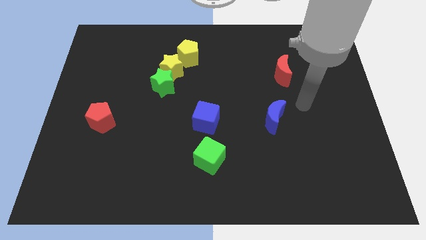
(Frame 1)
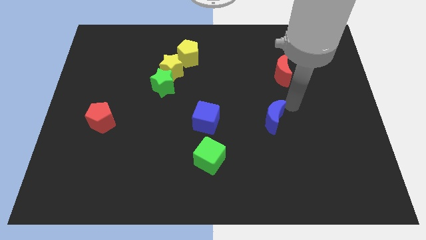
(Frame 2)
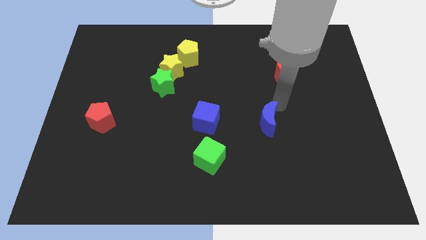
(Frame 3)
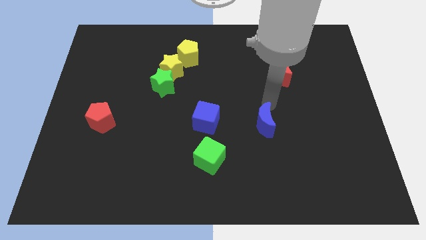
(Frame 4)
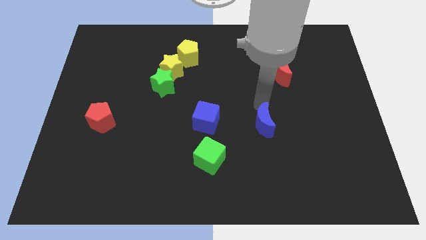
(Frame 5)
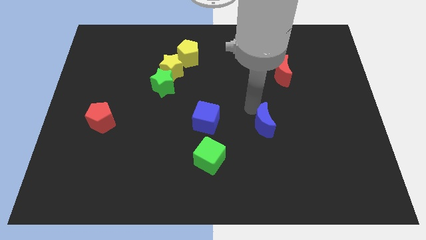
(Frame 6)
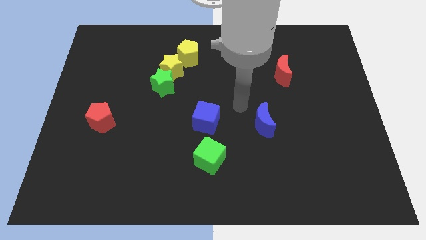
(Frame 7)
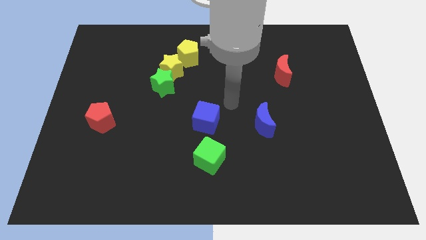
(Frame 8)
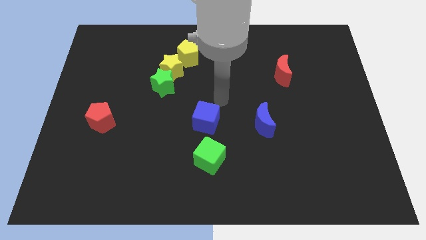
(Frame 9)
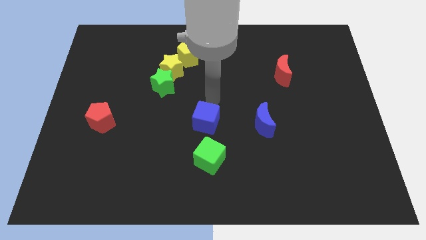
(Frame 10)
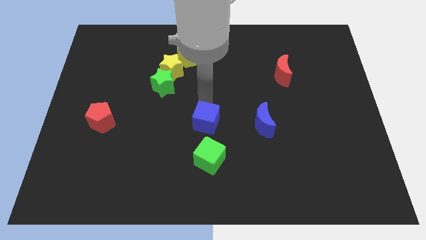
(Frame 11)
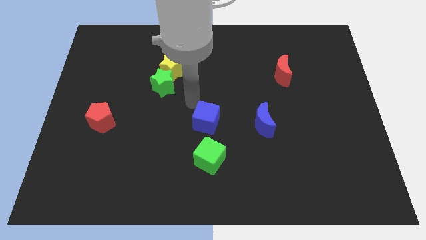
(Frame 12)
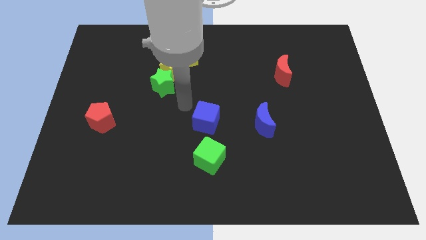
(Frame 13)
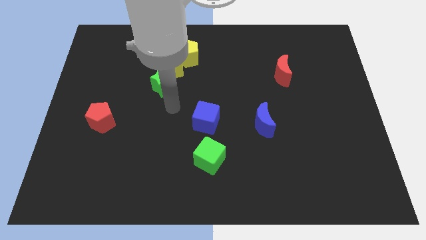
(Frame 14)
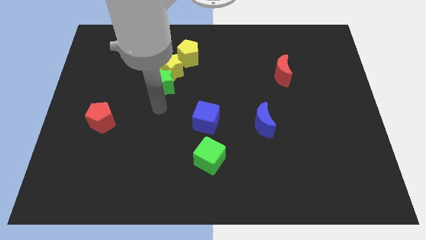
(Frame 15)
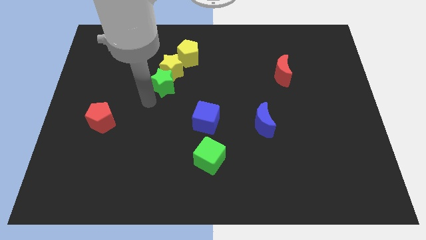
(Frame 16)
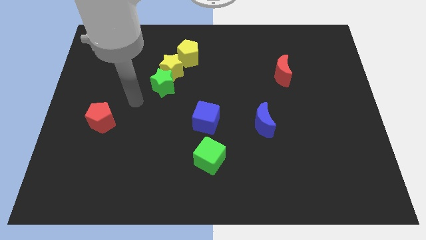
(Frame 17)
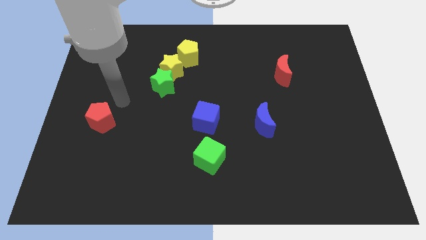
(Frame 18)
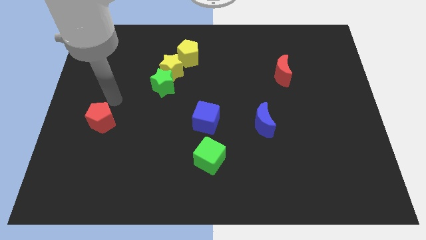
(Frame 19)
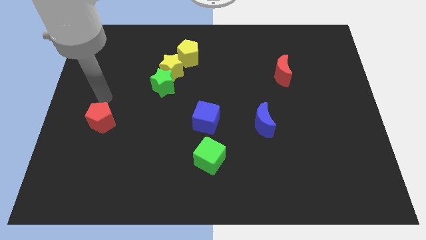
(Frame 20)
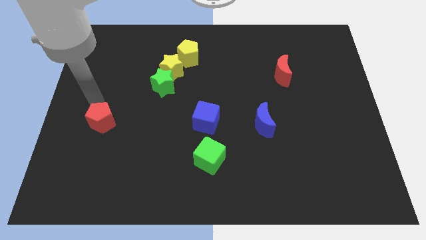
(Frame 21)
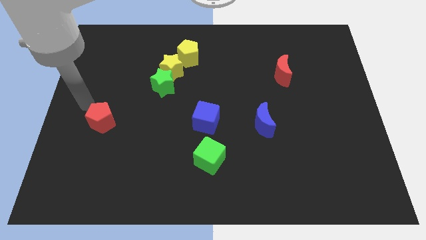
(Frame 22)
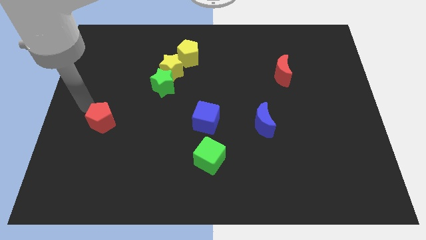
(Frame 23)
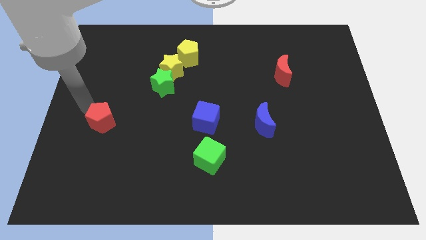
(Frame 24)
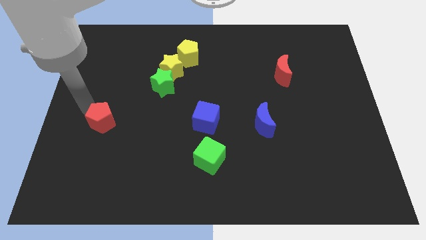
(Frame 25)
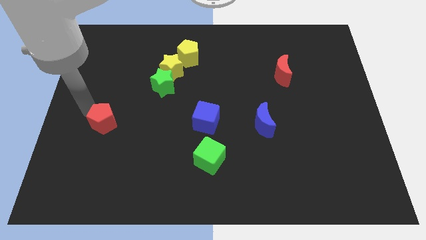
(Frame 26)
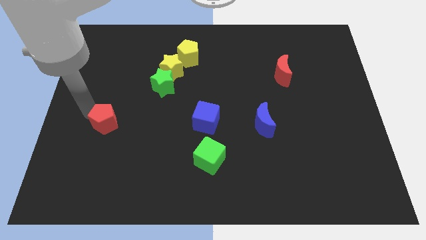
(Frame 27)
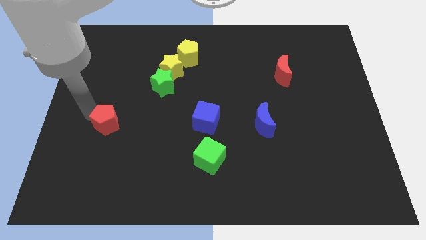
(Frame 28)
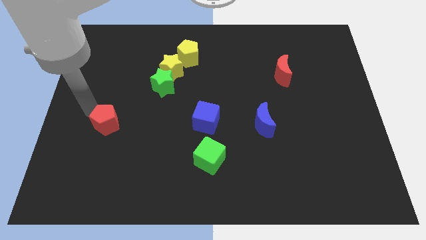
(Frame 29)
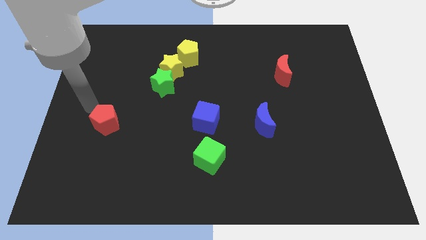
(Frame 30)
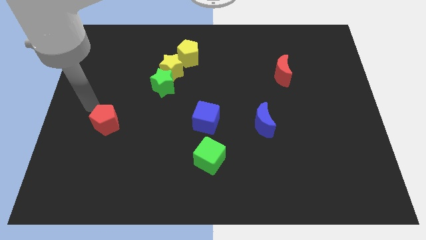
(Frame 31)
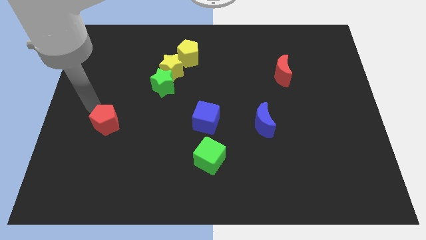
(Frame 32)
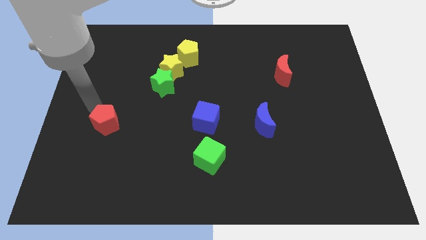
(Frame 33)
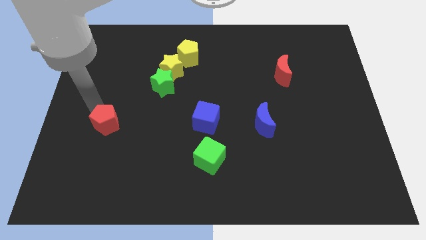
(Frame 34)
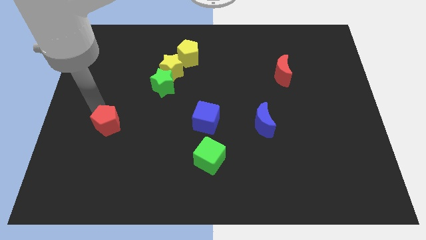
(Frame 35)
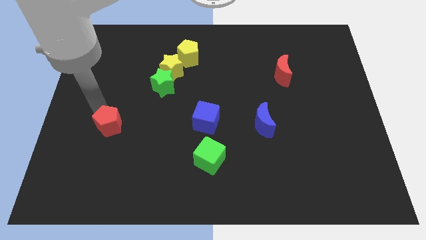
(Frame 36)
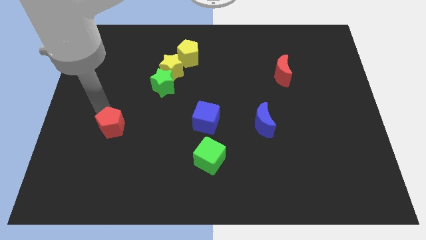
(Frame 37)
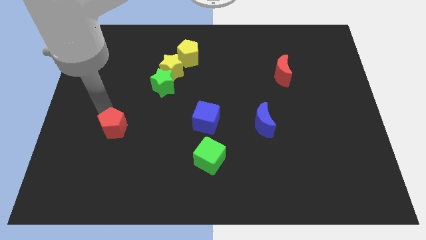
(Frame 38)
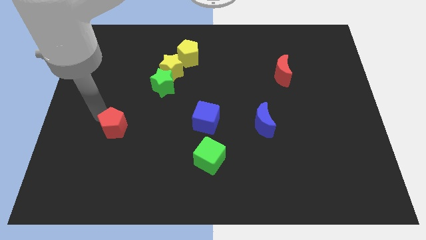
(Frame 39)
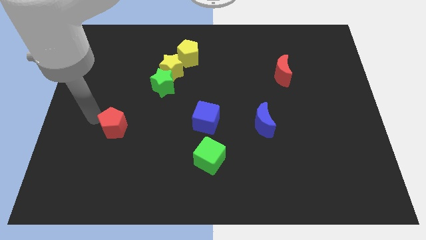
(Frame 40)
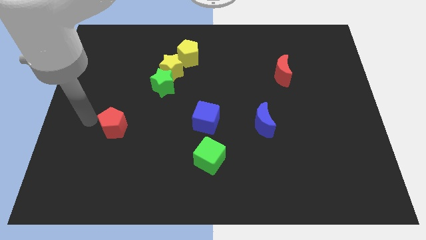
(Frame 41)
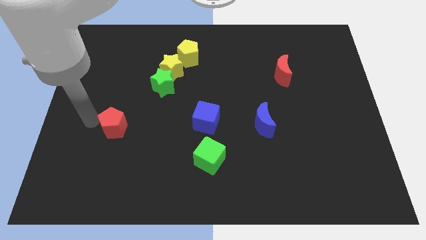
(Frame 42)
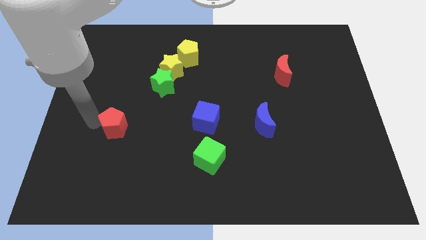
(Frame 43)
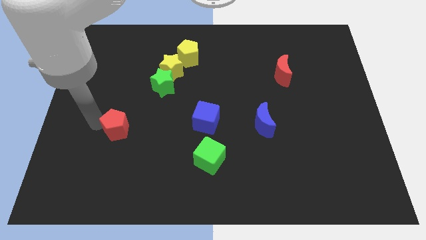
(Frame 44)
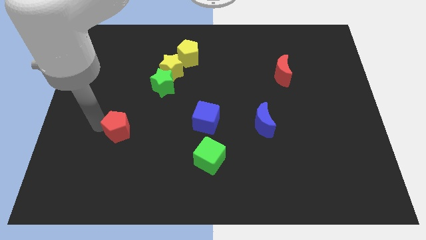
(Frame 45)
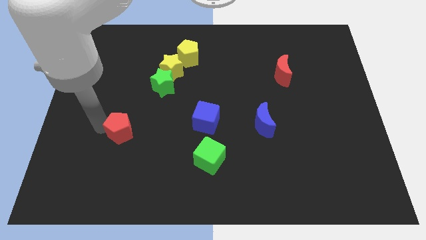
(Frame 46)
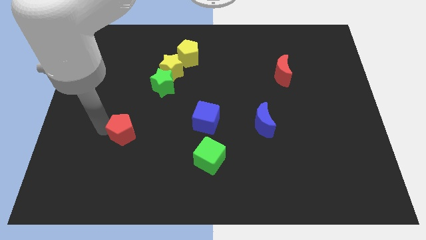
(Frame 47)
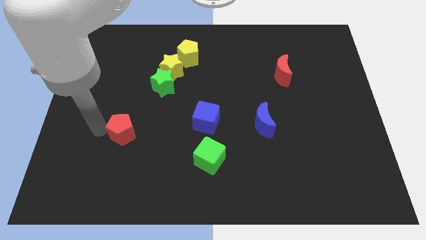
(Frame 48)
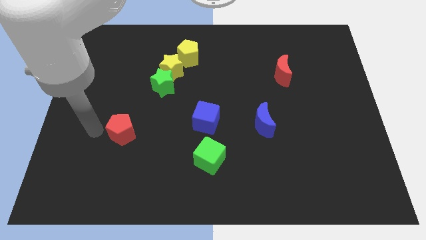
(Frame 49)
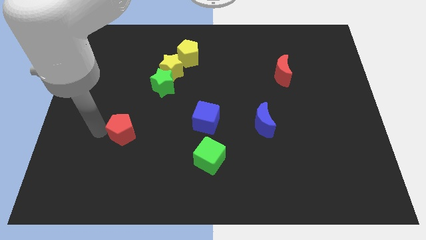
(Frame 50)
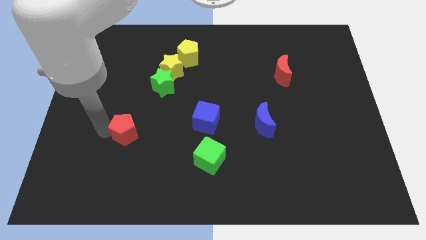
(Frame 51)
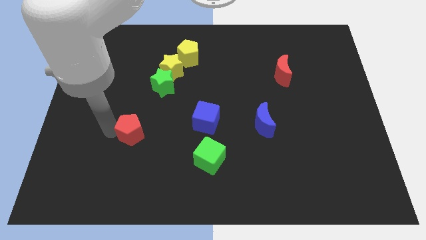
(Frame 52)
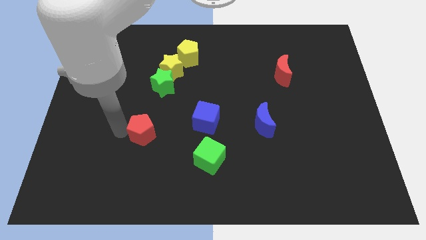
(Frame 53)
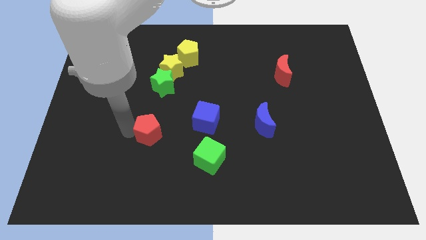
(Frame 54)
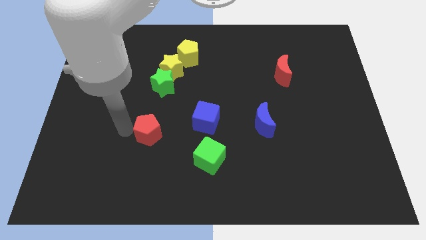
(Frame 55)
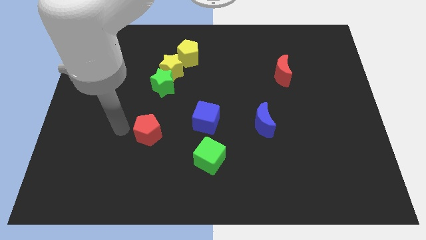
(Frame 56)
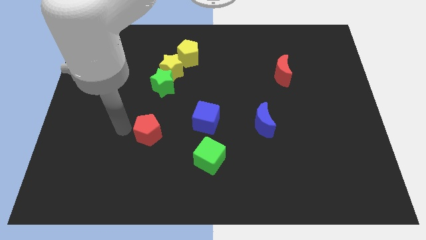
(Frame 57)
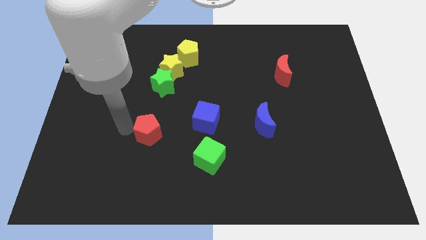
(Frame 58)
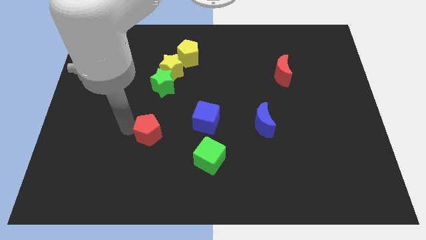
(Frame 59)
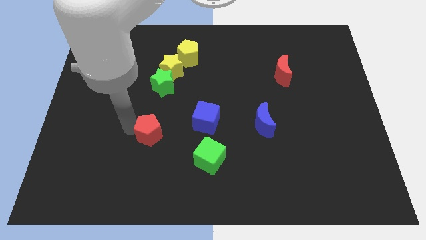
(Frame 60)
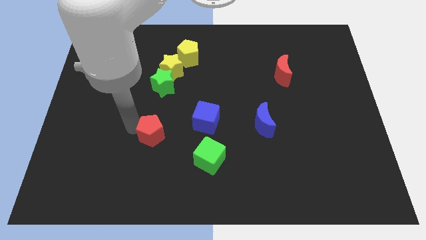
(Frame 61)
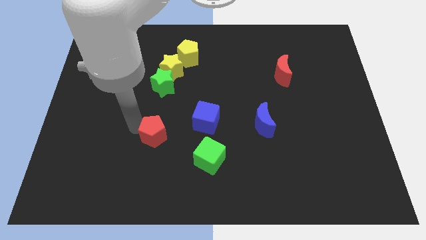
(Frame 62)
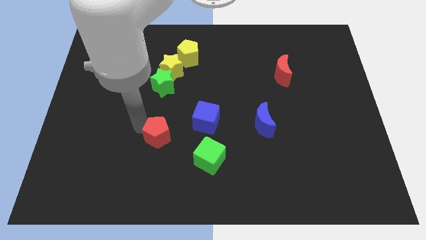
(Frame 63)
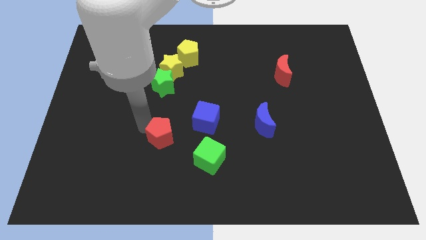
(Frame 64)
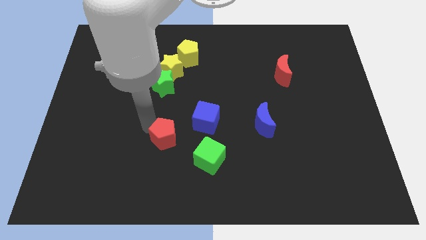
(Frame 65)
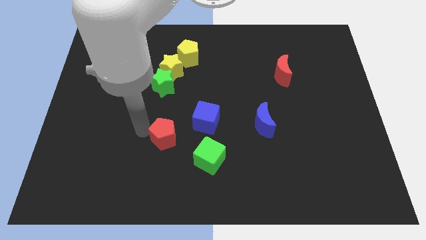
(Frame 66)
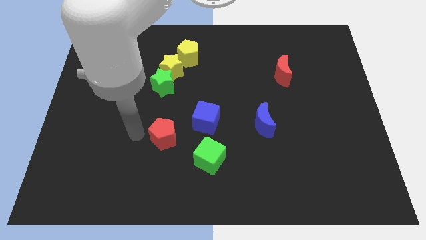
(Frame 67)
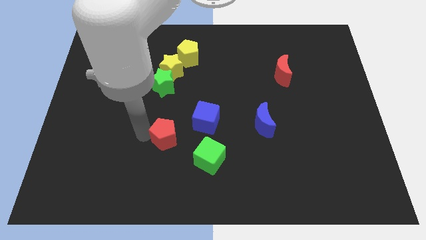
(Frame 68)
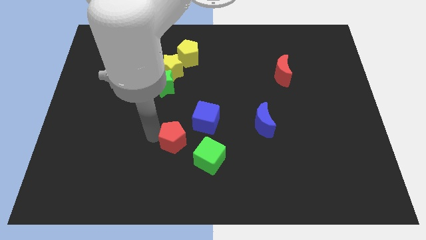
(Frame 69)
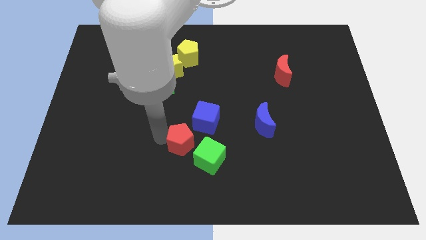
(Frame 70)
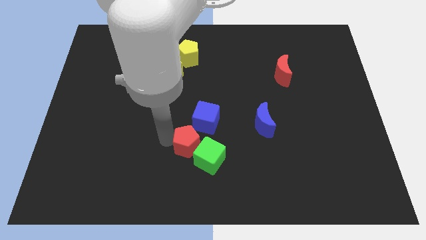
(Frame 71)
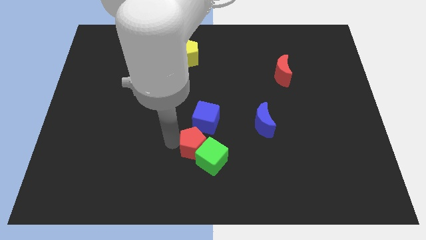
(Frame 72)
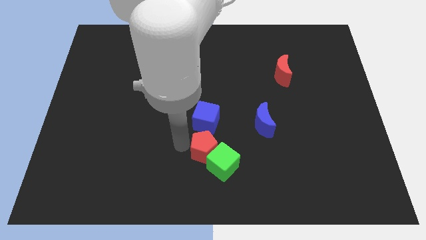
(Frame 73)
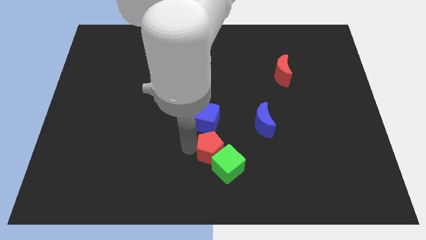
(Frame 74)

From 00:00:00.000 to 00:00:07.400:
put the red pentagon to the bottom right of the blue cube
